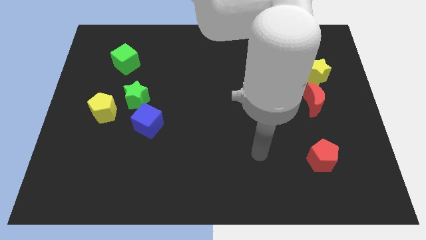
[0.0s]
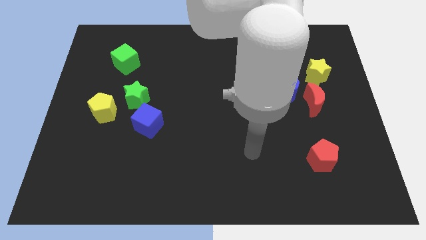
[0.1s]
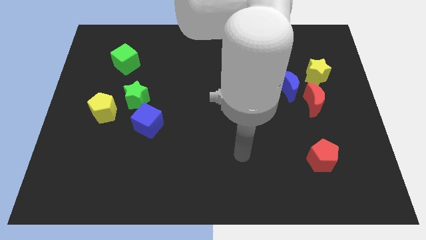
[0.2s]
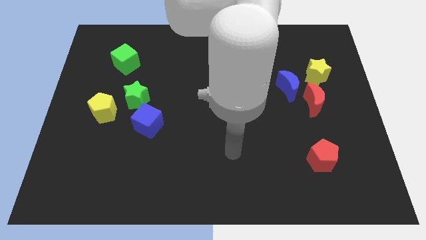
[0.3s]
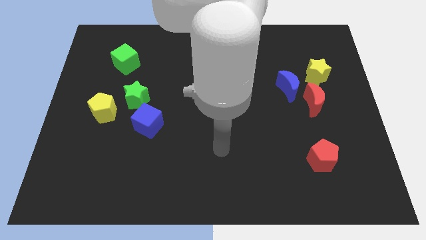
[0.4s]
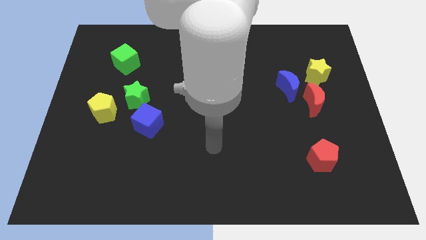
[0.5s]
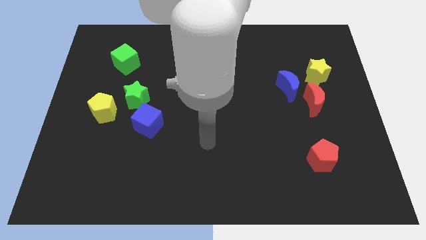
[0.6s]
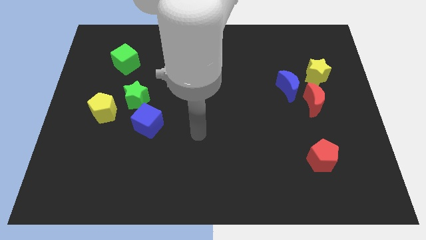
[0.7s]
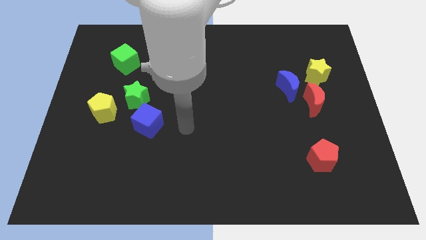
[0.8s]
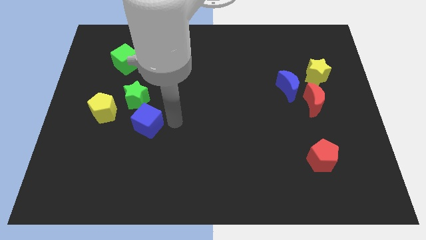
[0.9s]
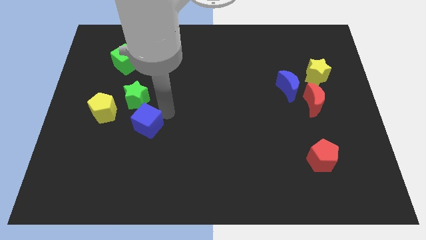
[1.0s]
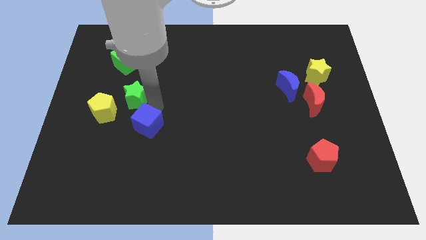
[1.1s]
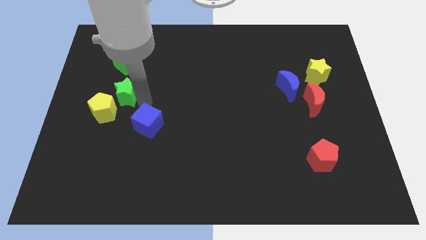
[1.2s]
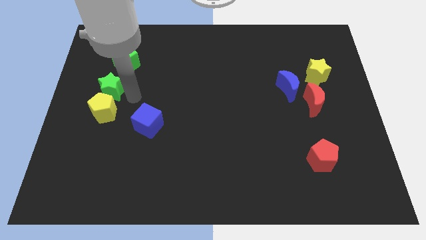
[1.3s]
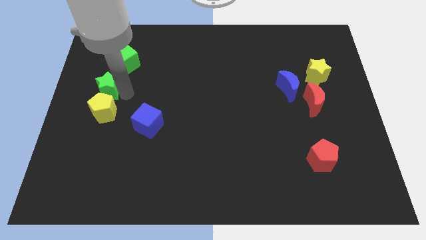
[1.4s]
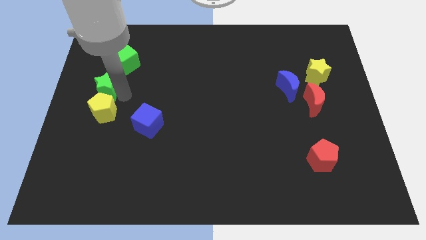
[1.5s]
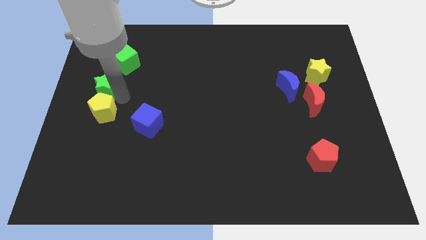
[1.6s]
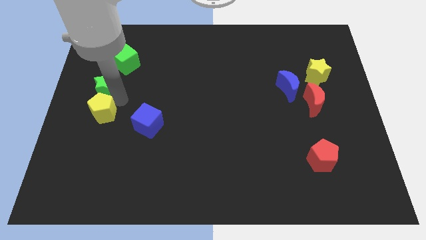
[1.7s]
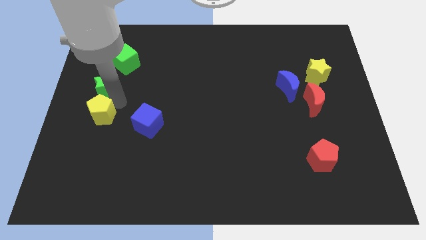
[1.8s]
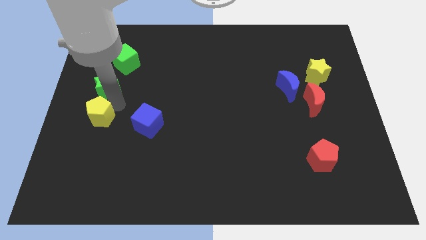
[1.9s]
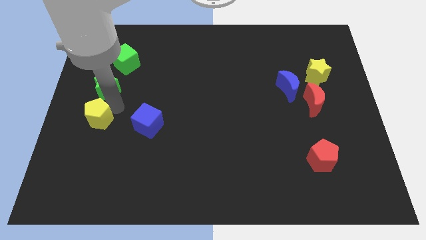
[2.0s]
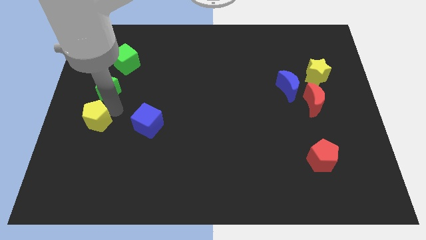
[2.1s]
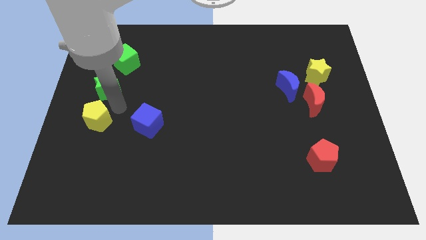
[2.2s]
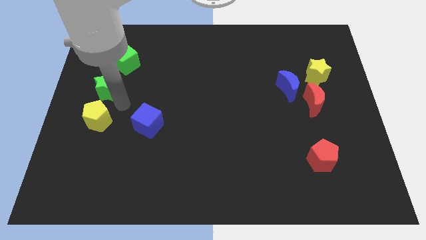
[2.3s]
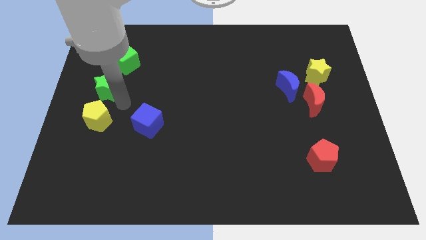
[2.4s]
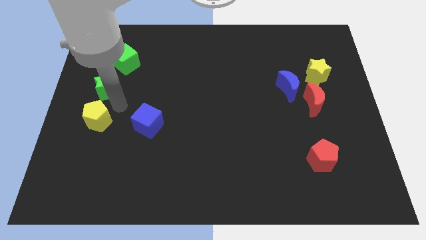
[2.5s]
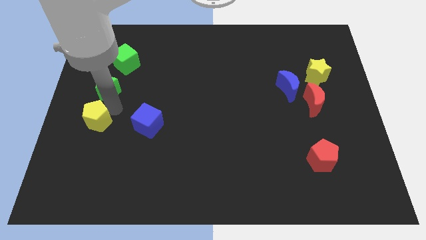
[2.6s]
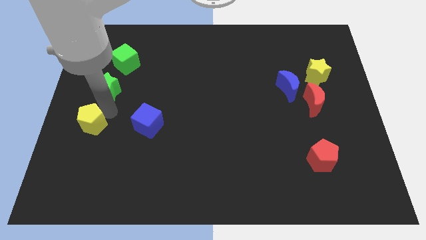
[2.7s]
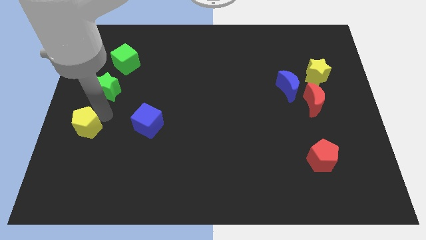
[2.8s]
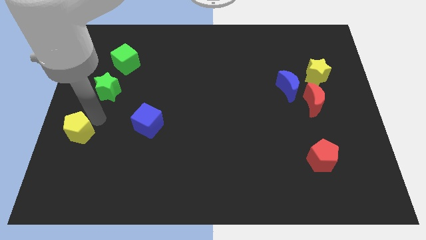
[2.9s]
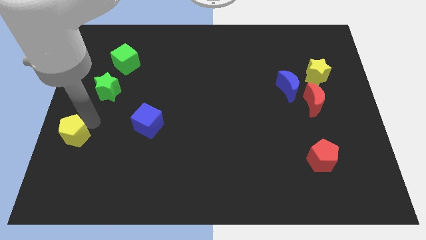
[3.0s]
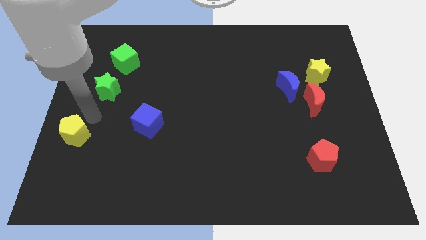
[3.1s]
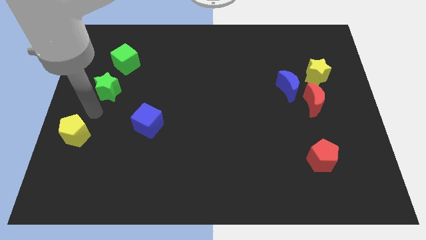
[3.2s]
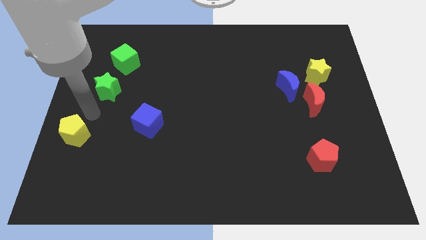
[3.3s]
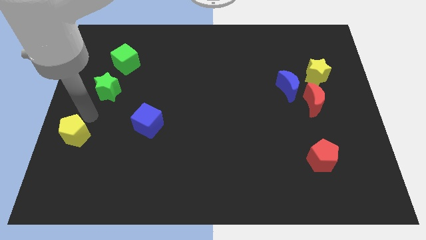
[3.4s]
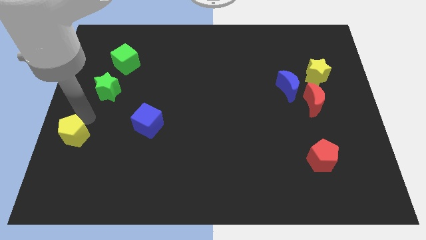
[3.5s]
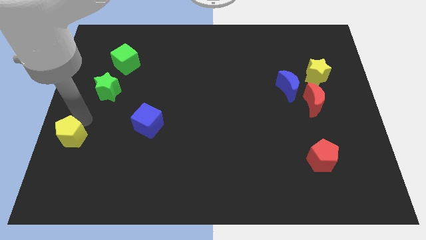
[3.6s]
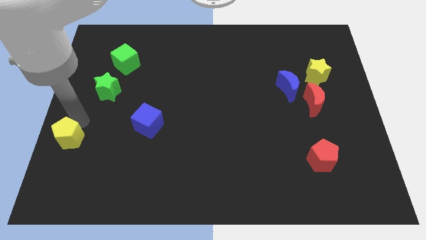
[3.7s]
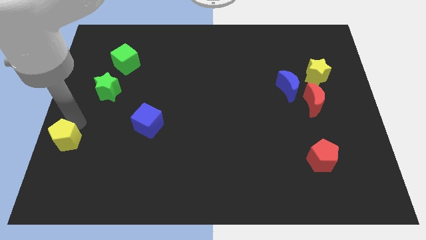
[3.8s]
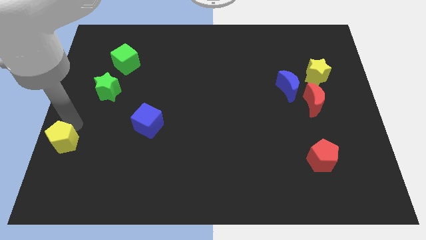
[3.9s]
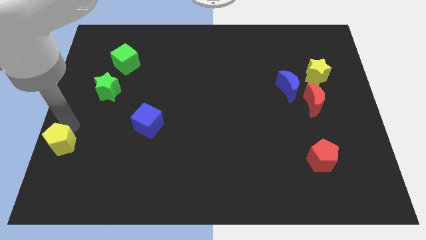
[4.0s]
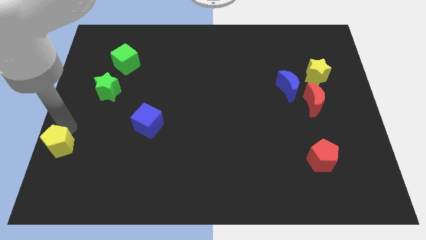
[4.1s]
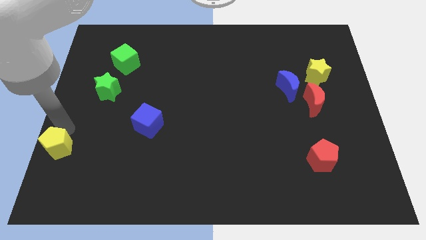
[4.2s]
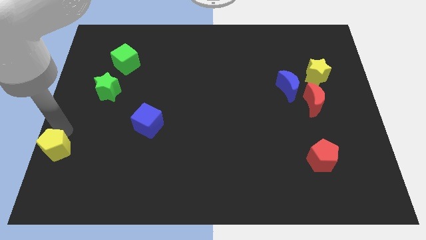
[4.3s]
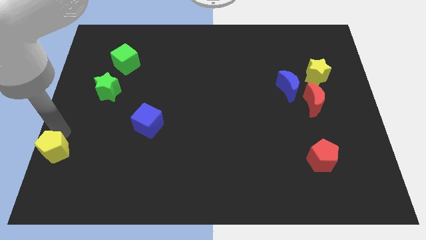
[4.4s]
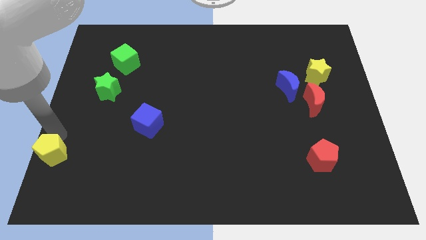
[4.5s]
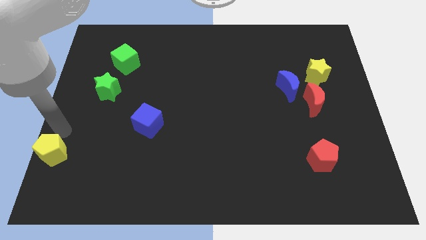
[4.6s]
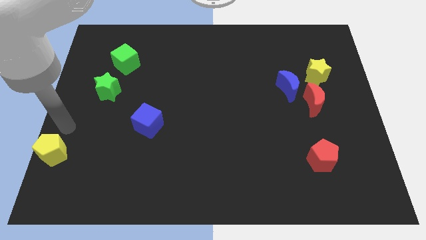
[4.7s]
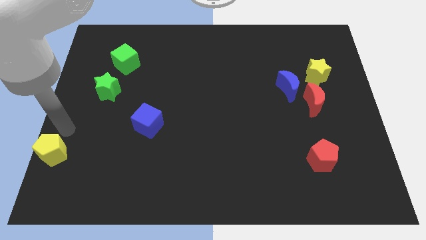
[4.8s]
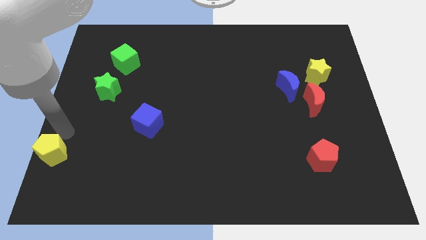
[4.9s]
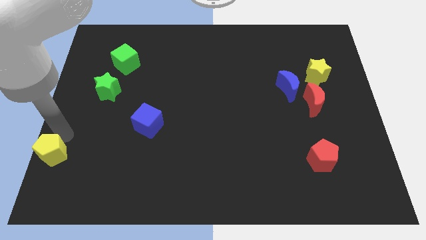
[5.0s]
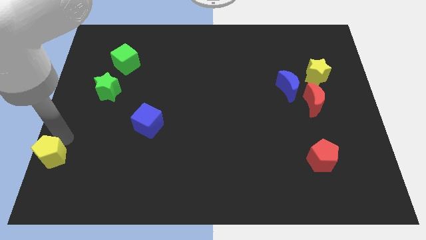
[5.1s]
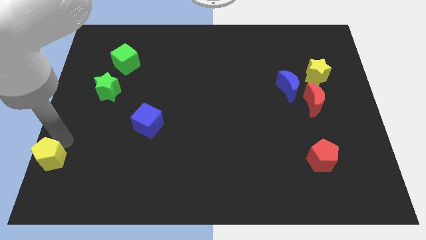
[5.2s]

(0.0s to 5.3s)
move the yellow pentagon to the bottom left

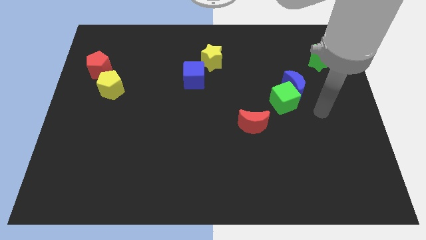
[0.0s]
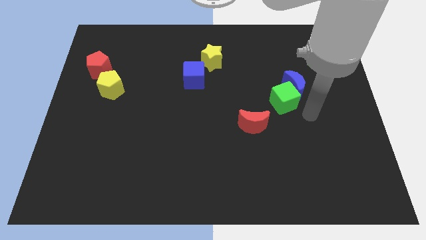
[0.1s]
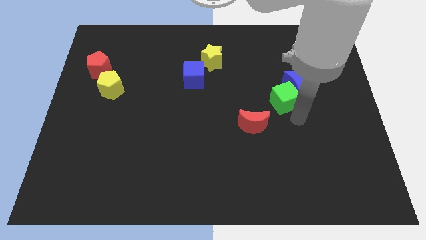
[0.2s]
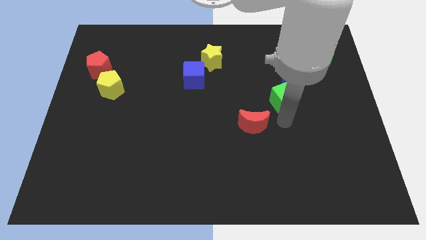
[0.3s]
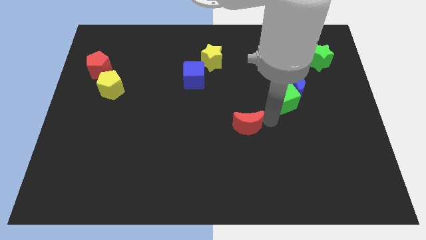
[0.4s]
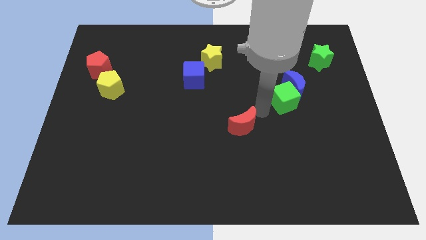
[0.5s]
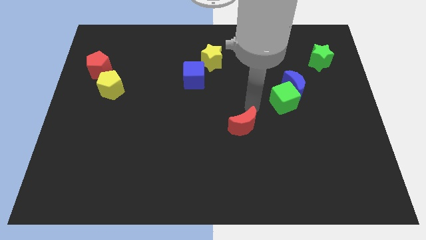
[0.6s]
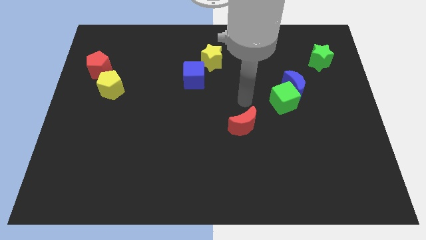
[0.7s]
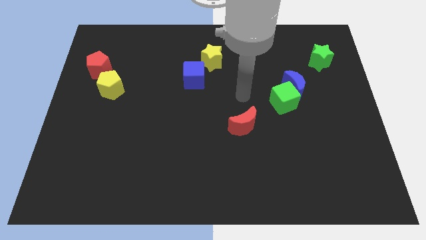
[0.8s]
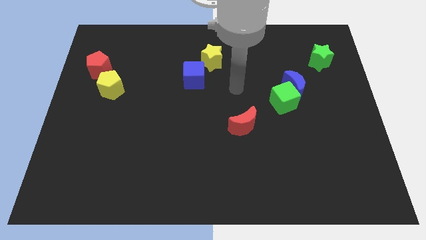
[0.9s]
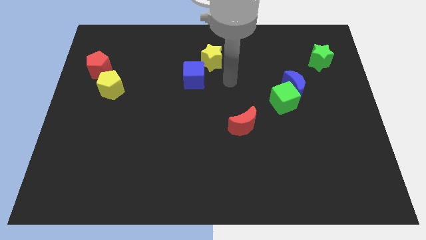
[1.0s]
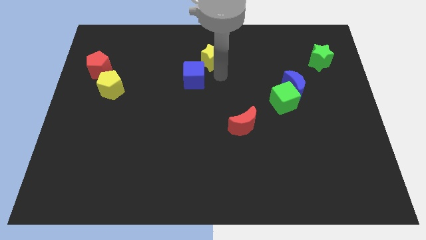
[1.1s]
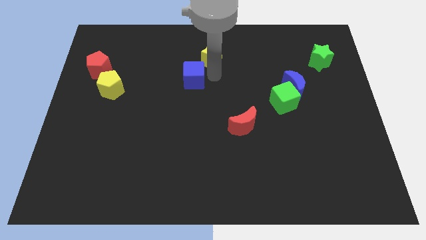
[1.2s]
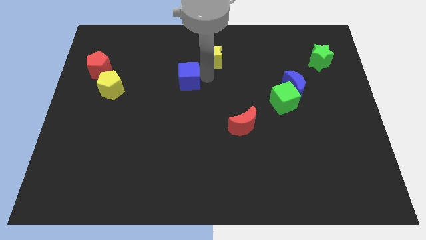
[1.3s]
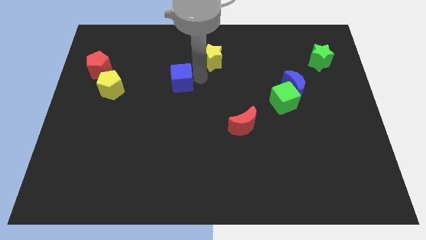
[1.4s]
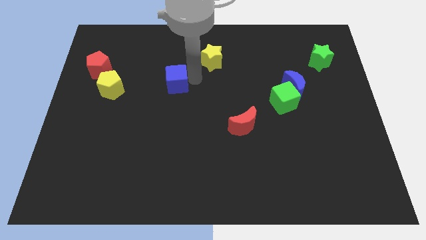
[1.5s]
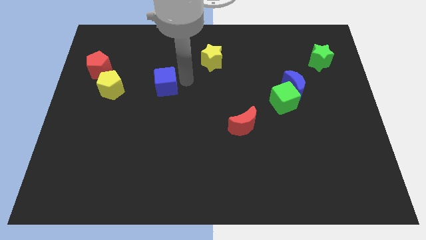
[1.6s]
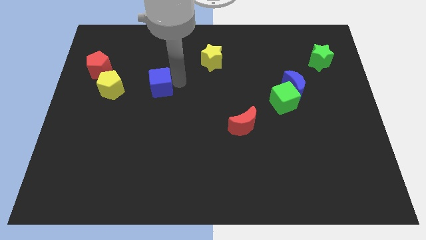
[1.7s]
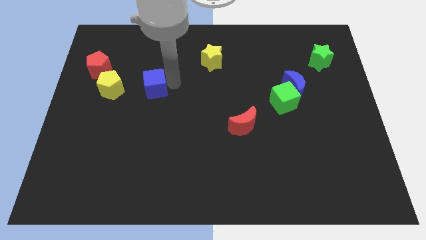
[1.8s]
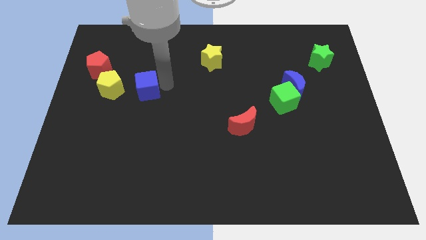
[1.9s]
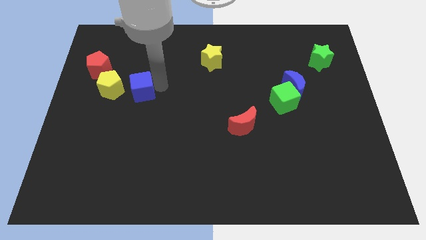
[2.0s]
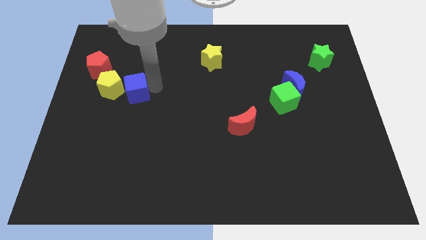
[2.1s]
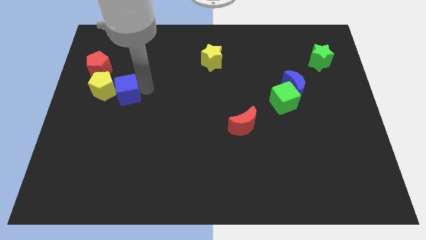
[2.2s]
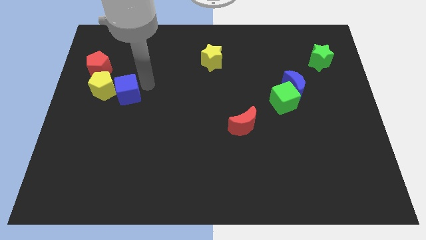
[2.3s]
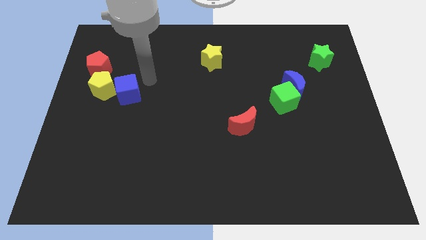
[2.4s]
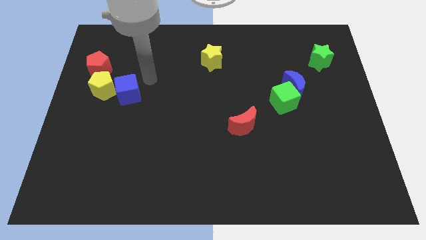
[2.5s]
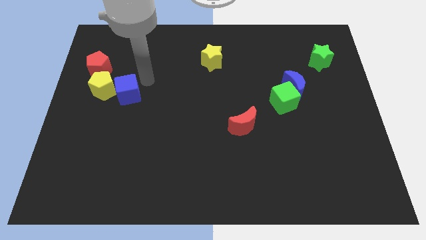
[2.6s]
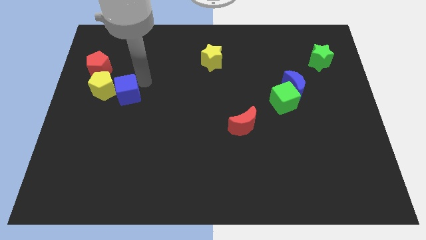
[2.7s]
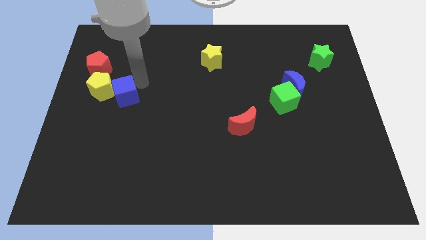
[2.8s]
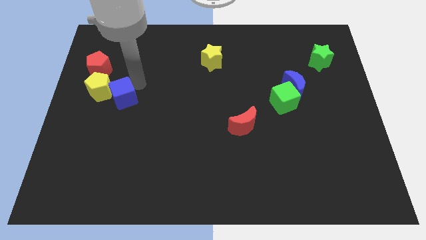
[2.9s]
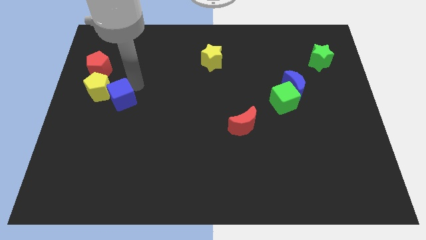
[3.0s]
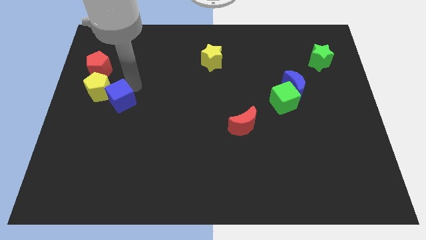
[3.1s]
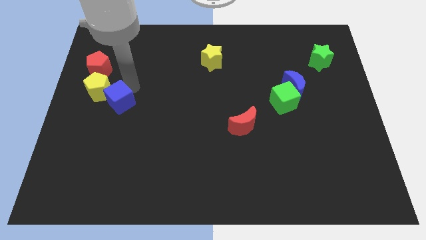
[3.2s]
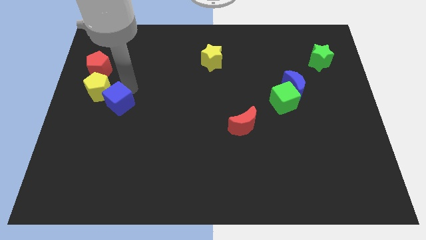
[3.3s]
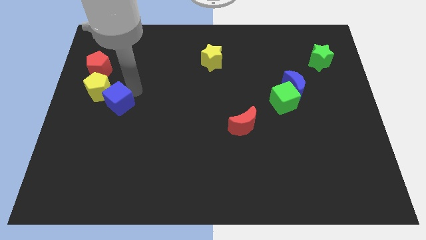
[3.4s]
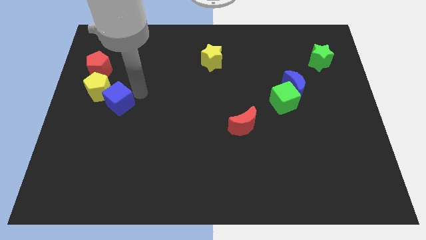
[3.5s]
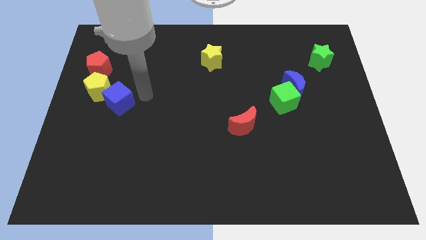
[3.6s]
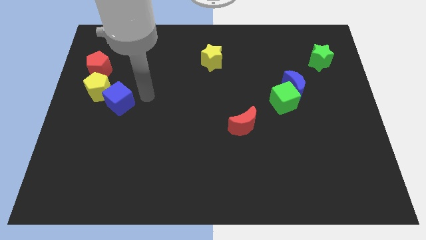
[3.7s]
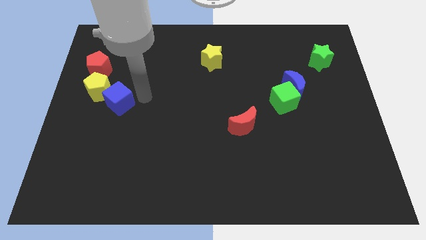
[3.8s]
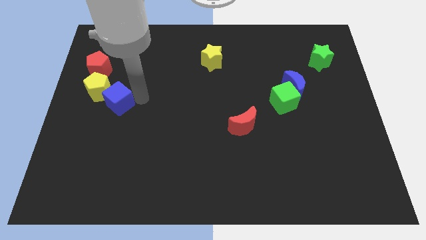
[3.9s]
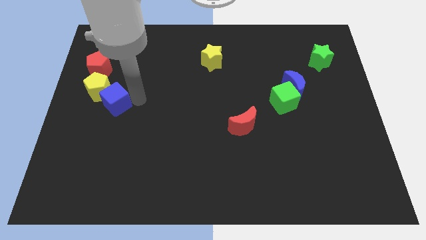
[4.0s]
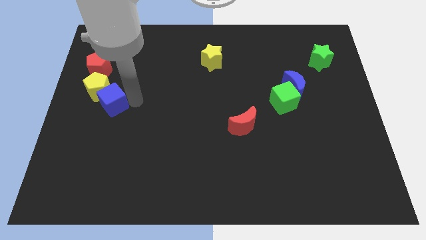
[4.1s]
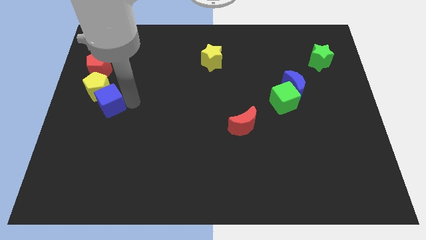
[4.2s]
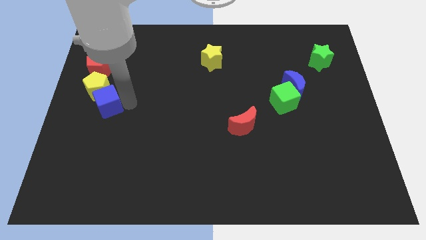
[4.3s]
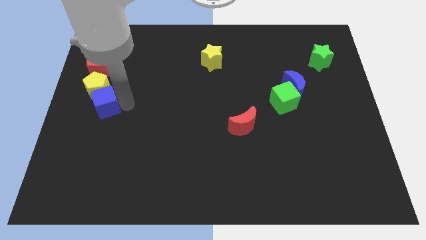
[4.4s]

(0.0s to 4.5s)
put the blue cube to the left side
